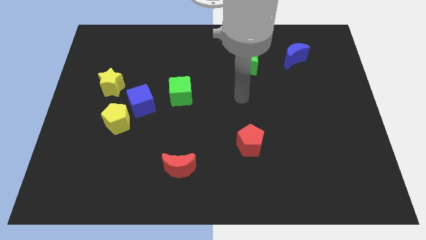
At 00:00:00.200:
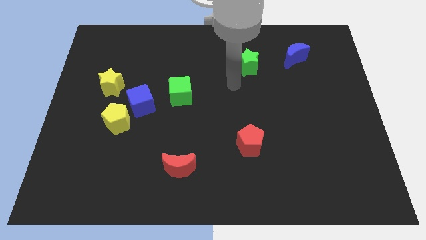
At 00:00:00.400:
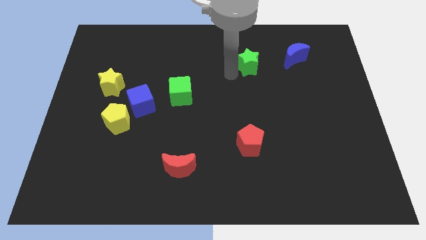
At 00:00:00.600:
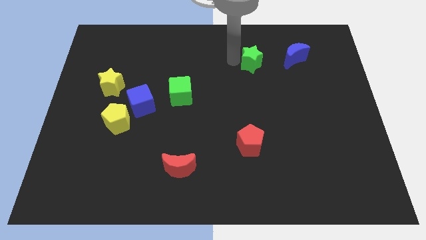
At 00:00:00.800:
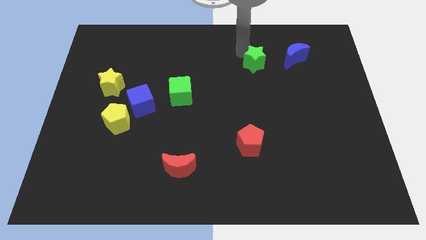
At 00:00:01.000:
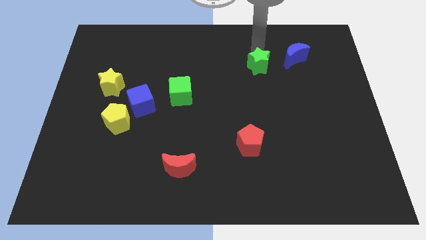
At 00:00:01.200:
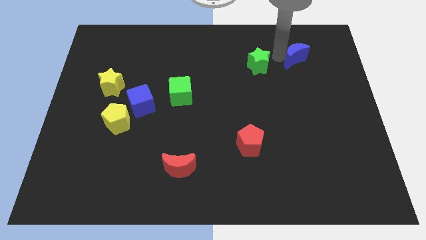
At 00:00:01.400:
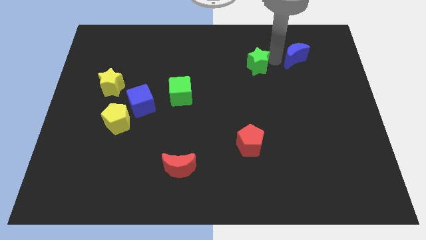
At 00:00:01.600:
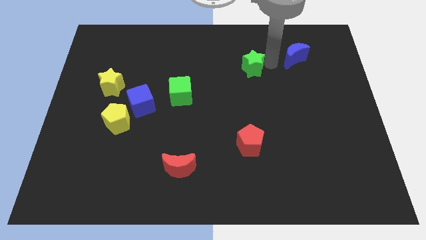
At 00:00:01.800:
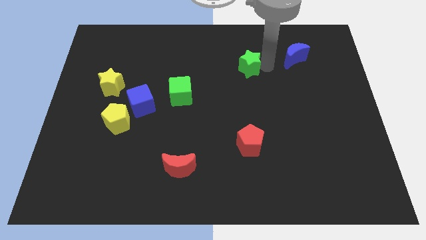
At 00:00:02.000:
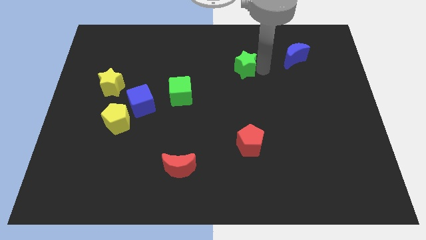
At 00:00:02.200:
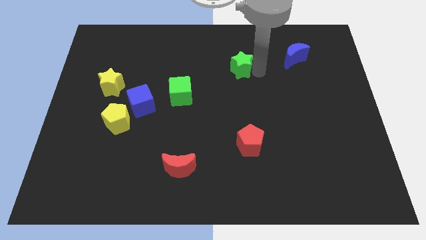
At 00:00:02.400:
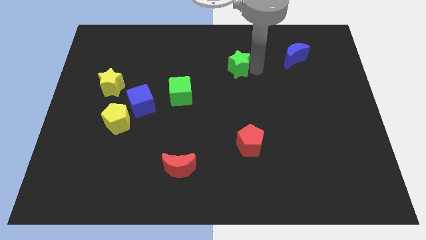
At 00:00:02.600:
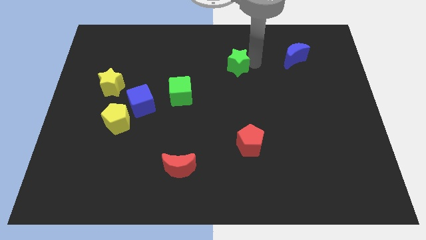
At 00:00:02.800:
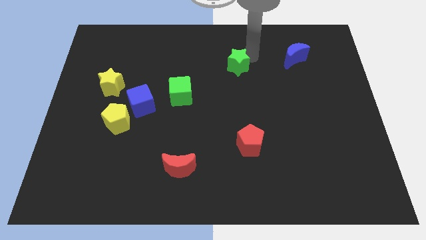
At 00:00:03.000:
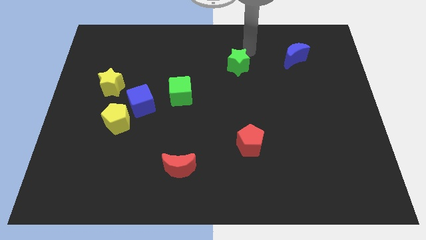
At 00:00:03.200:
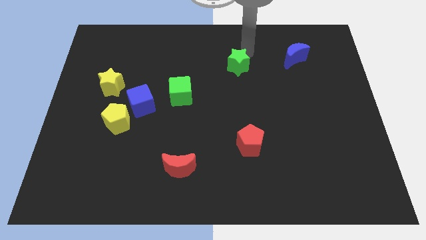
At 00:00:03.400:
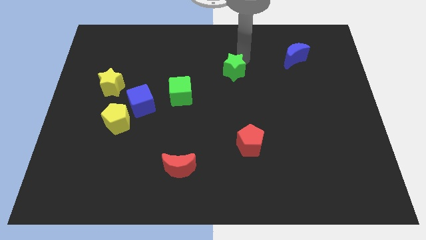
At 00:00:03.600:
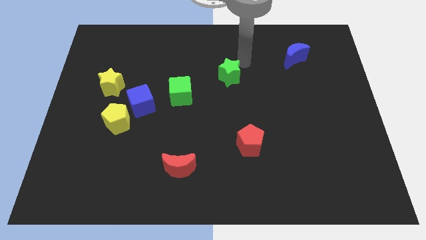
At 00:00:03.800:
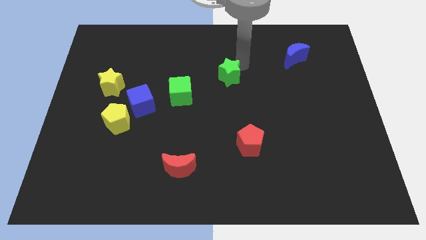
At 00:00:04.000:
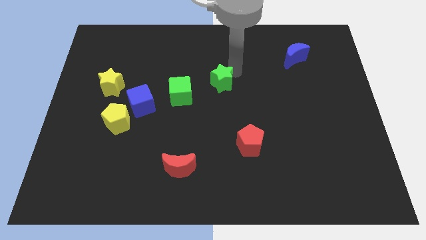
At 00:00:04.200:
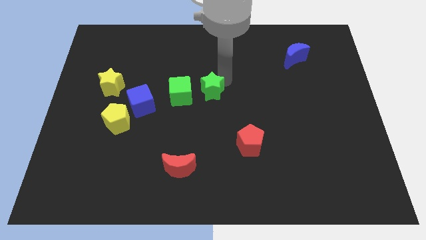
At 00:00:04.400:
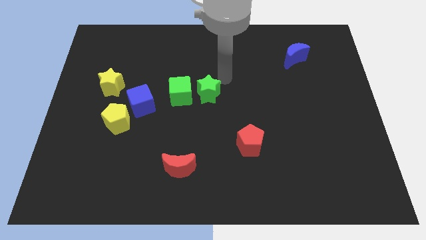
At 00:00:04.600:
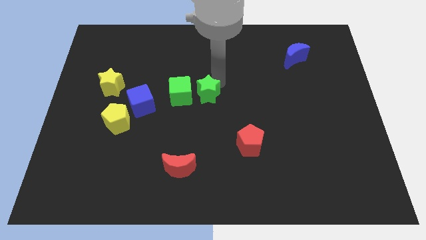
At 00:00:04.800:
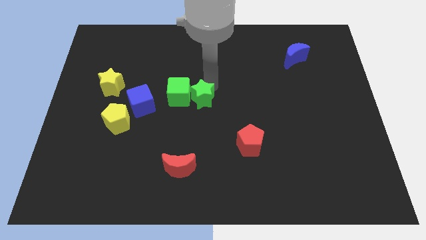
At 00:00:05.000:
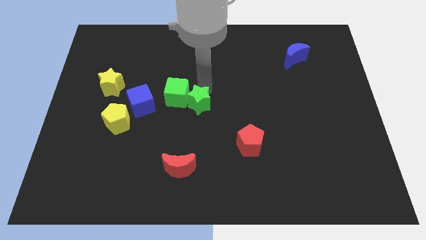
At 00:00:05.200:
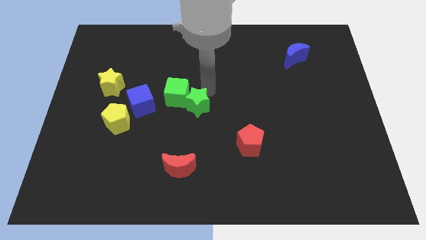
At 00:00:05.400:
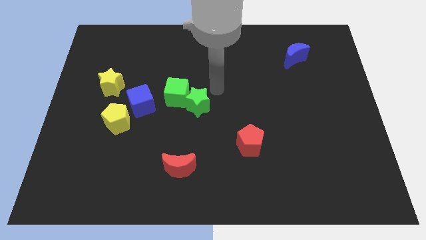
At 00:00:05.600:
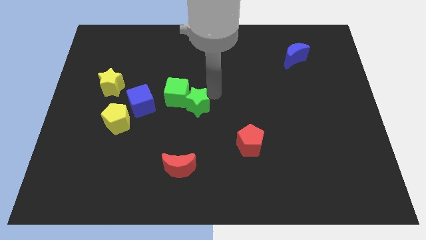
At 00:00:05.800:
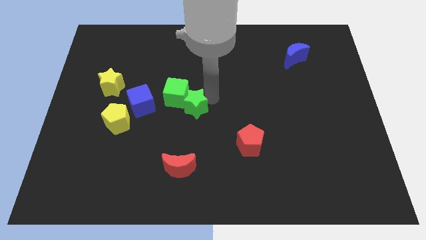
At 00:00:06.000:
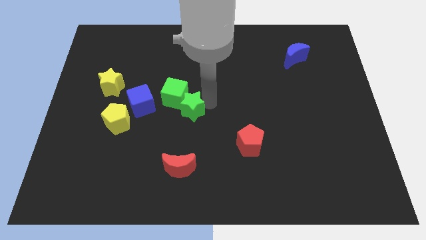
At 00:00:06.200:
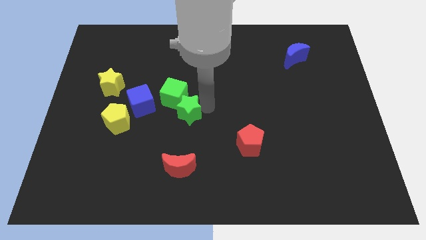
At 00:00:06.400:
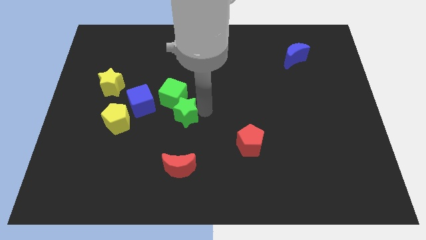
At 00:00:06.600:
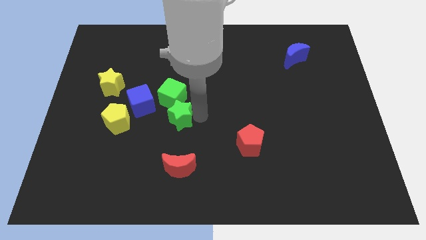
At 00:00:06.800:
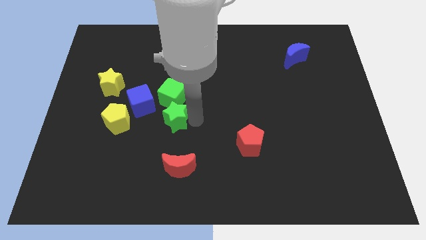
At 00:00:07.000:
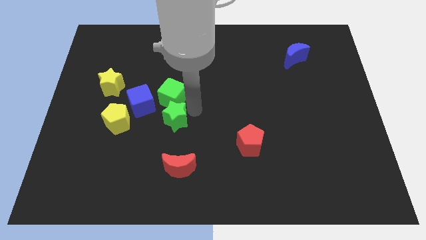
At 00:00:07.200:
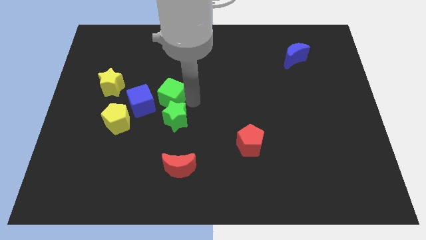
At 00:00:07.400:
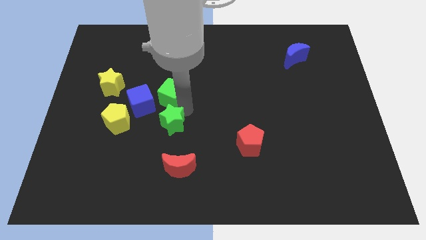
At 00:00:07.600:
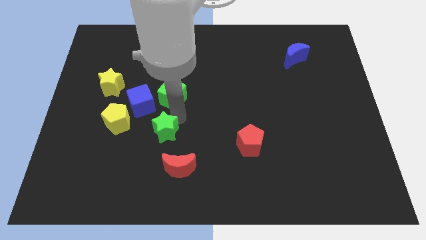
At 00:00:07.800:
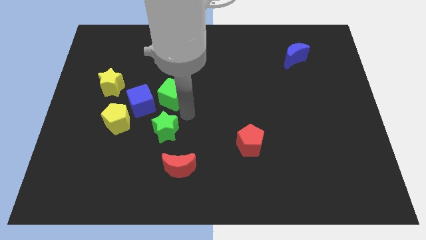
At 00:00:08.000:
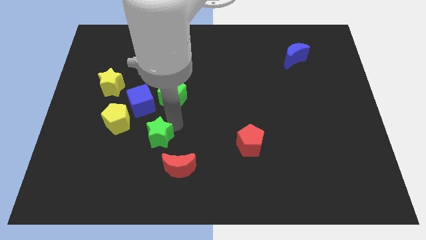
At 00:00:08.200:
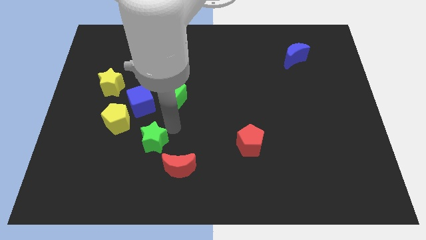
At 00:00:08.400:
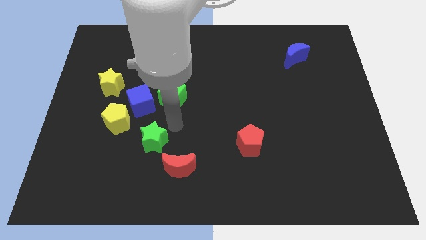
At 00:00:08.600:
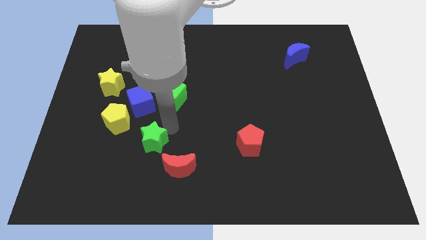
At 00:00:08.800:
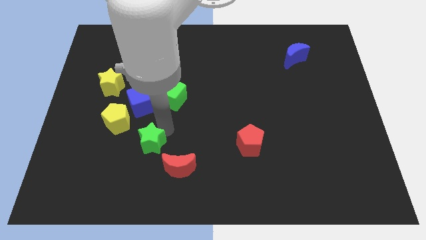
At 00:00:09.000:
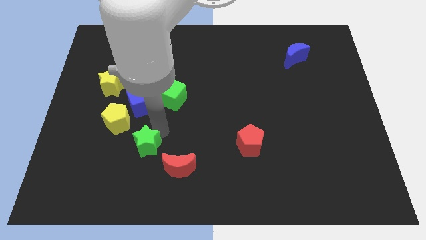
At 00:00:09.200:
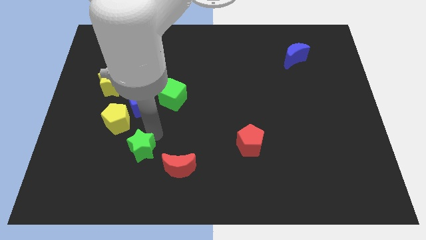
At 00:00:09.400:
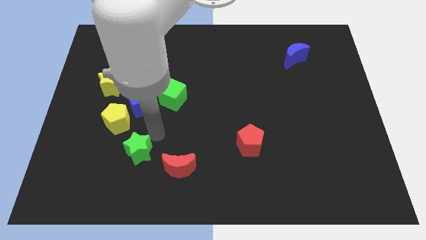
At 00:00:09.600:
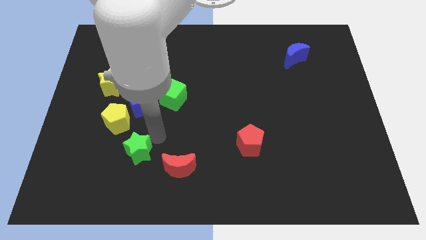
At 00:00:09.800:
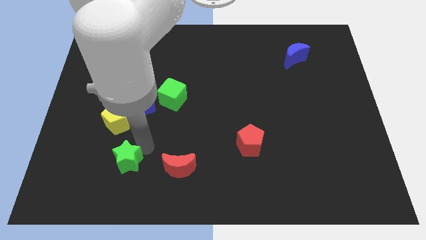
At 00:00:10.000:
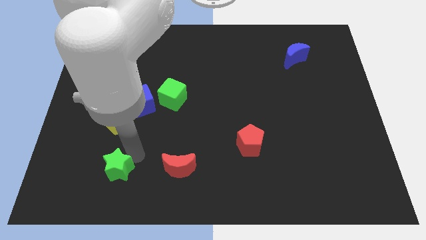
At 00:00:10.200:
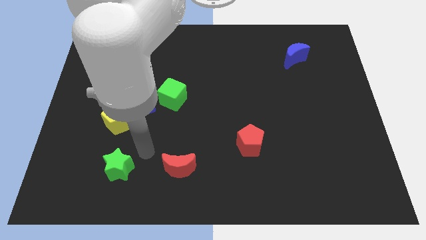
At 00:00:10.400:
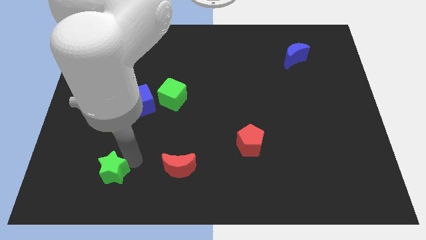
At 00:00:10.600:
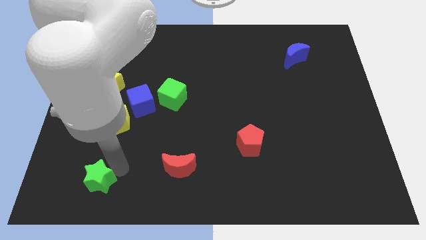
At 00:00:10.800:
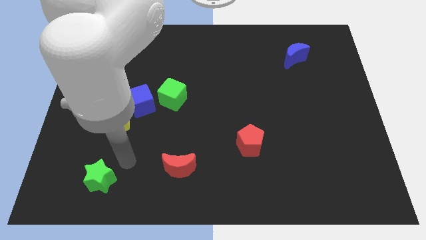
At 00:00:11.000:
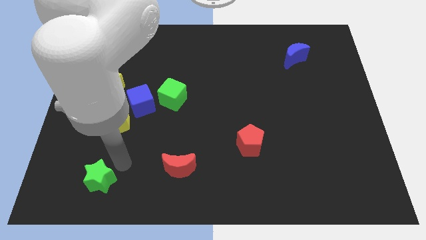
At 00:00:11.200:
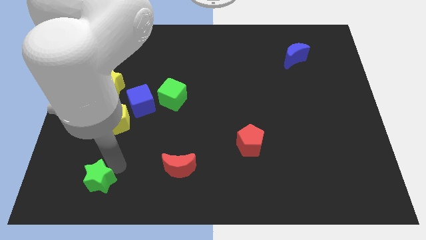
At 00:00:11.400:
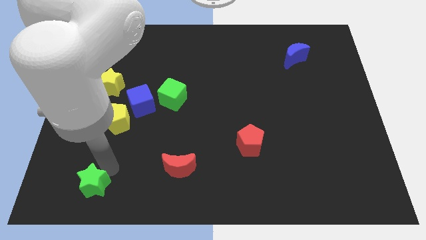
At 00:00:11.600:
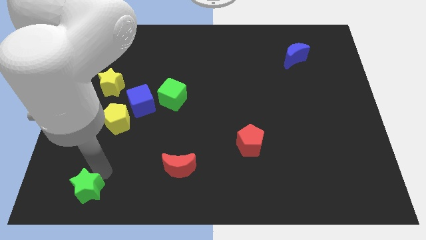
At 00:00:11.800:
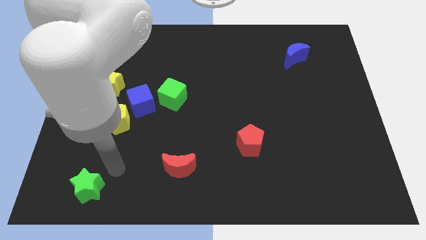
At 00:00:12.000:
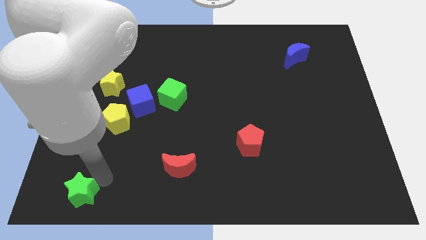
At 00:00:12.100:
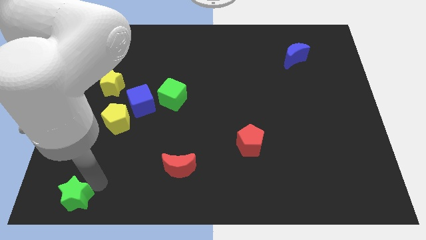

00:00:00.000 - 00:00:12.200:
put the green star to the bottom left corner
